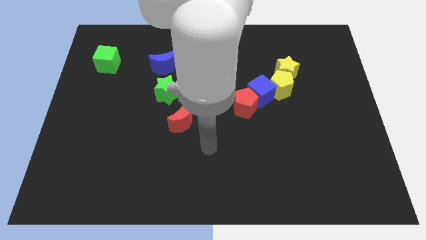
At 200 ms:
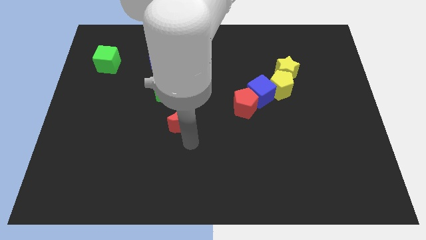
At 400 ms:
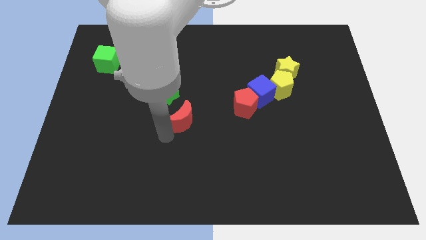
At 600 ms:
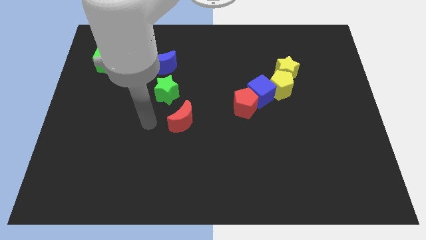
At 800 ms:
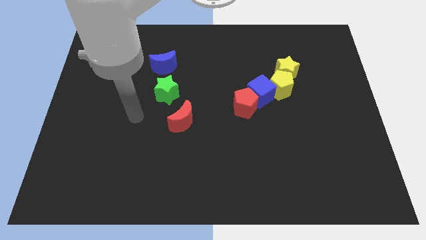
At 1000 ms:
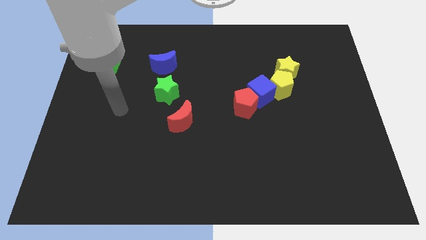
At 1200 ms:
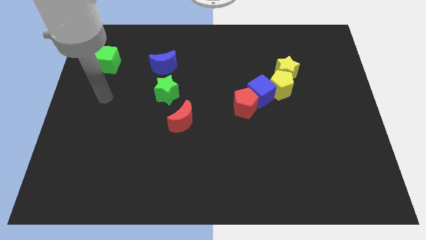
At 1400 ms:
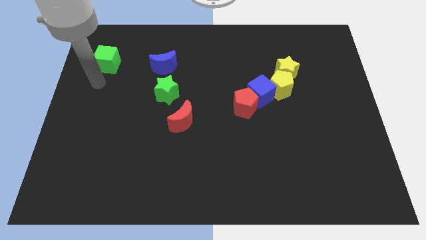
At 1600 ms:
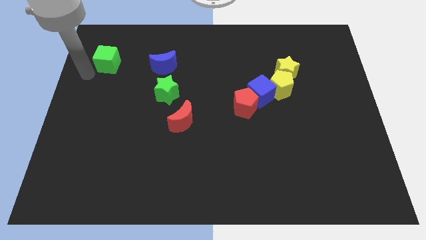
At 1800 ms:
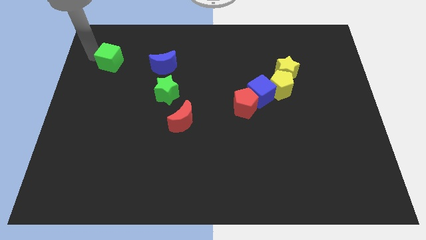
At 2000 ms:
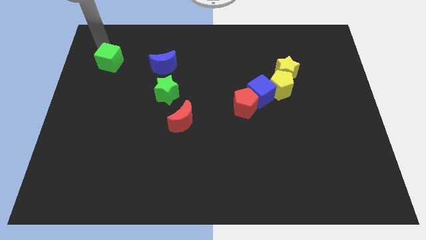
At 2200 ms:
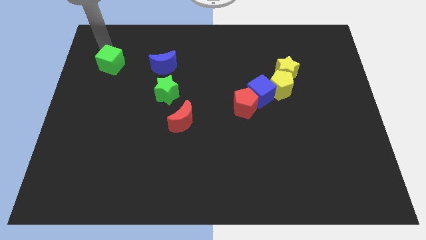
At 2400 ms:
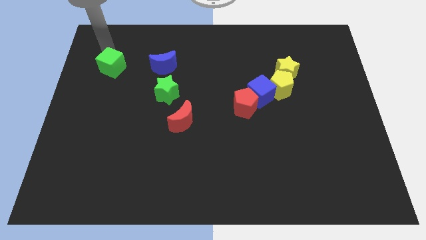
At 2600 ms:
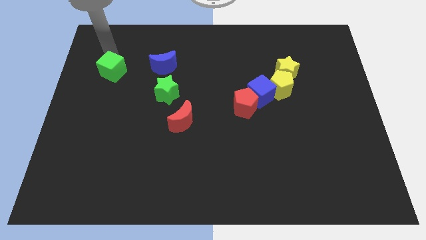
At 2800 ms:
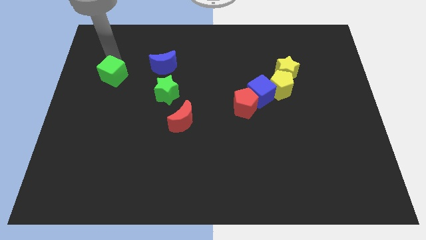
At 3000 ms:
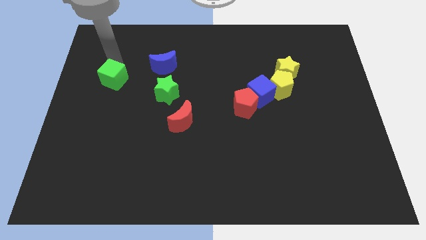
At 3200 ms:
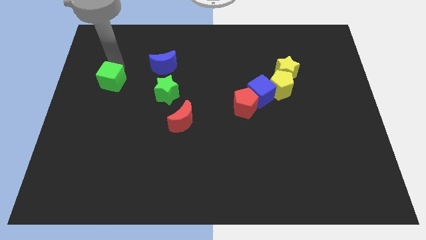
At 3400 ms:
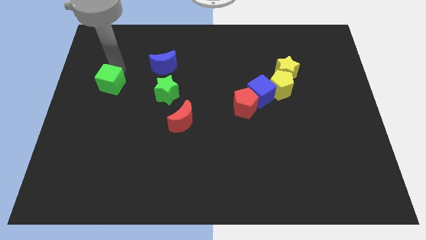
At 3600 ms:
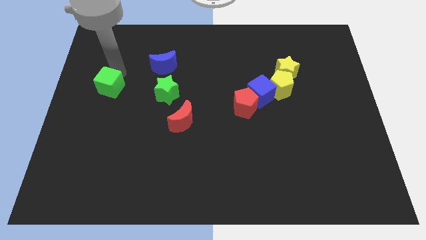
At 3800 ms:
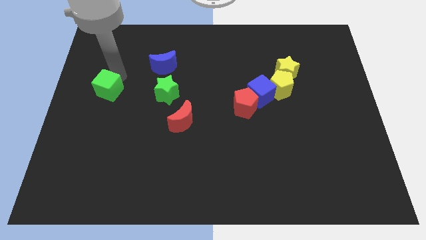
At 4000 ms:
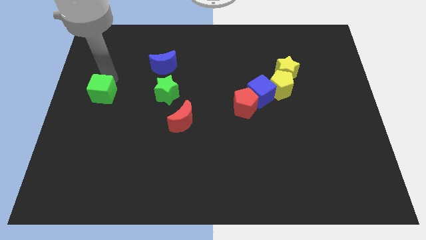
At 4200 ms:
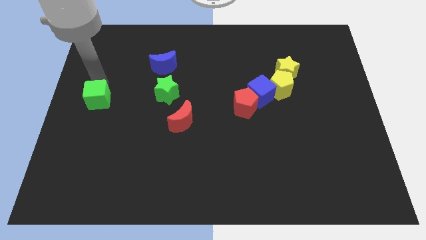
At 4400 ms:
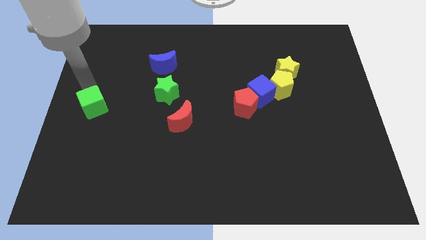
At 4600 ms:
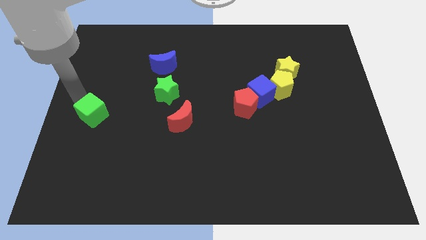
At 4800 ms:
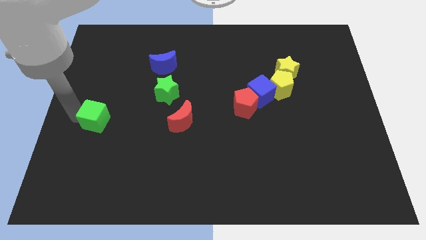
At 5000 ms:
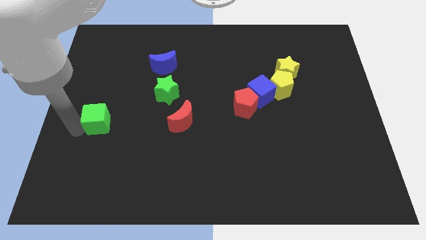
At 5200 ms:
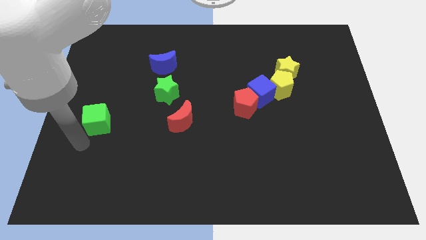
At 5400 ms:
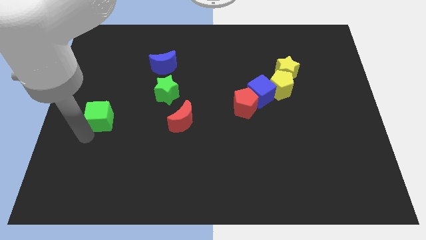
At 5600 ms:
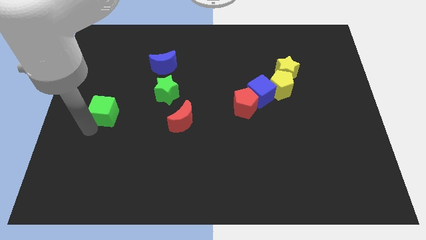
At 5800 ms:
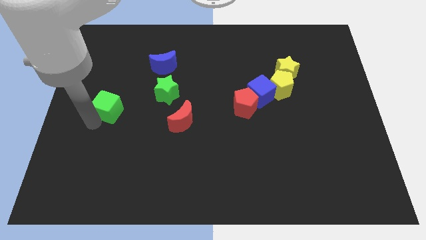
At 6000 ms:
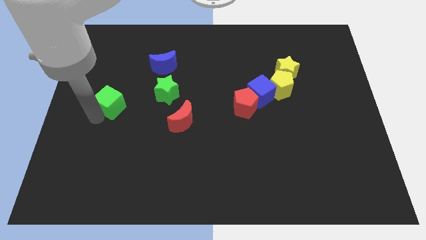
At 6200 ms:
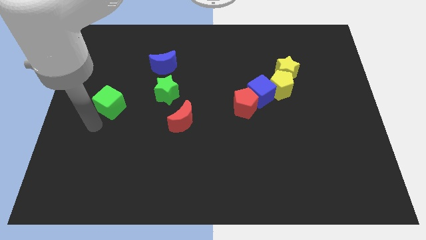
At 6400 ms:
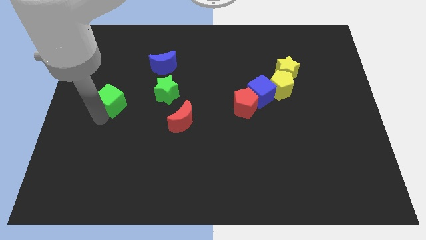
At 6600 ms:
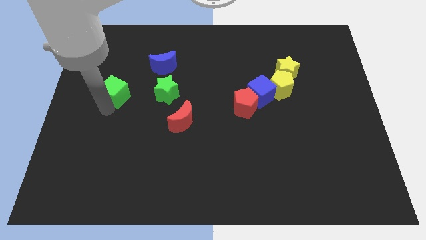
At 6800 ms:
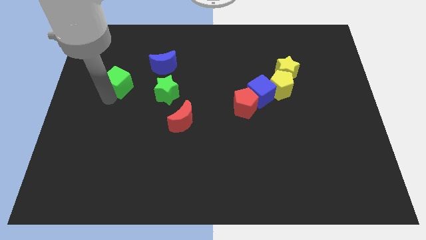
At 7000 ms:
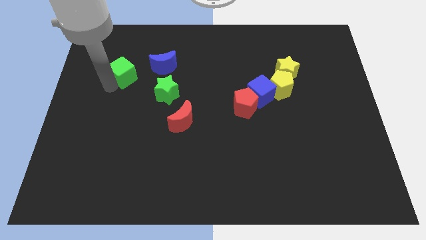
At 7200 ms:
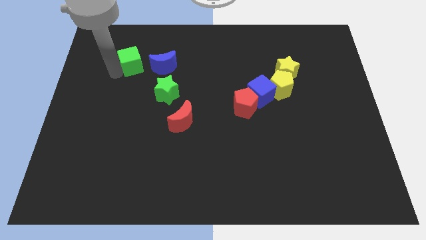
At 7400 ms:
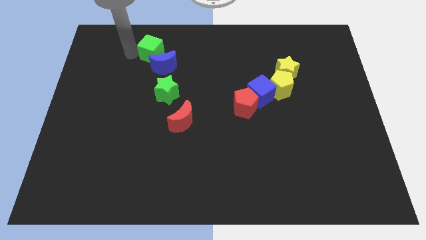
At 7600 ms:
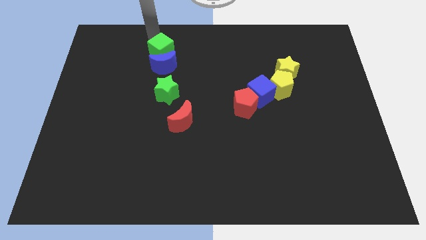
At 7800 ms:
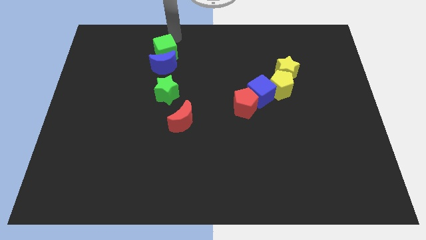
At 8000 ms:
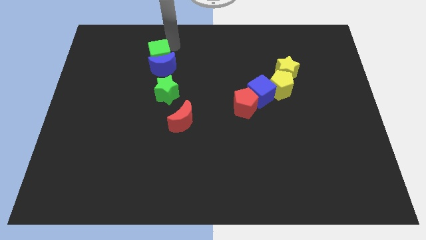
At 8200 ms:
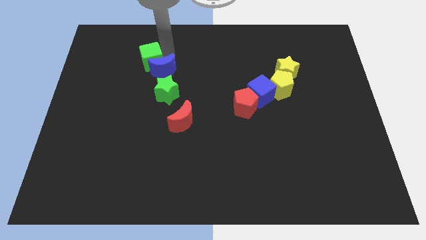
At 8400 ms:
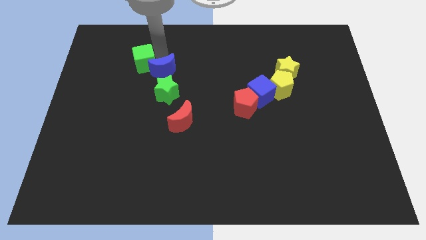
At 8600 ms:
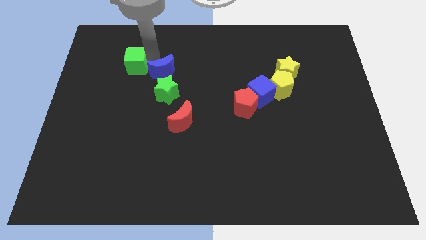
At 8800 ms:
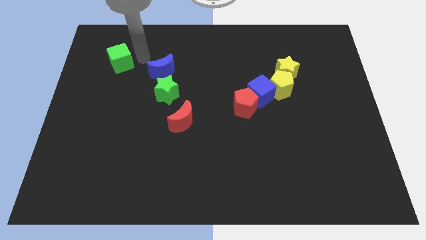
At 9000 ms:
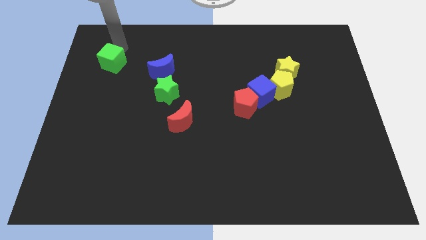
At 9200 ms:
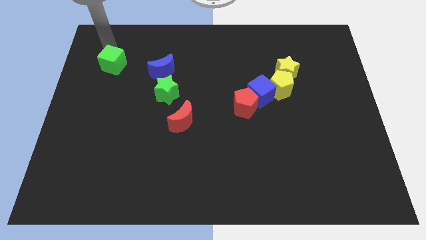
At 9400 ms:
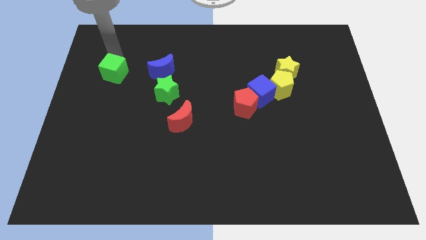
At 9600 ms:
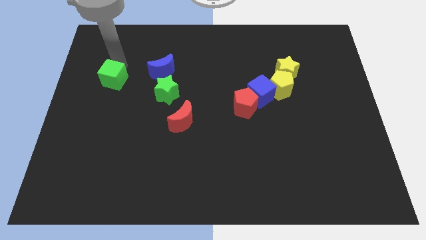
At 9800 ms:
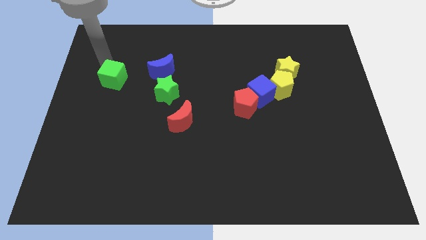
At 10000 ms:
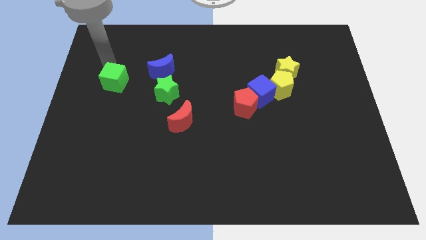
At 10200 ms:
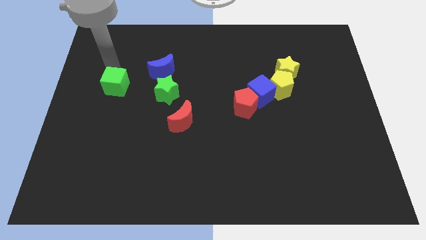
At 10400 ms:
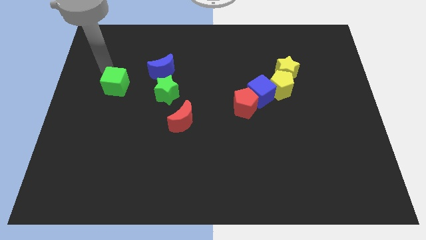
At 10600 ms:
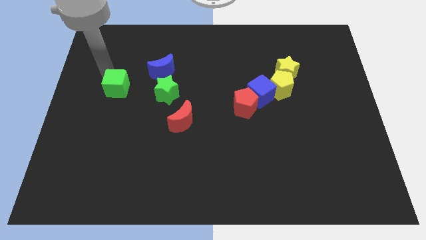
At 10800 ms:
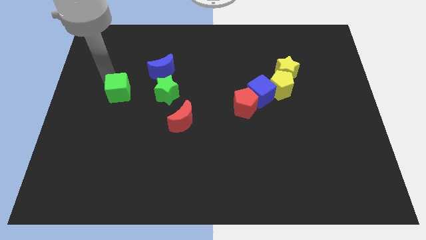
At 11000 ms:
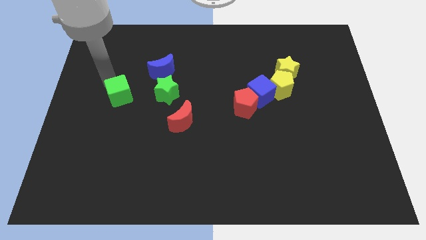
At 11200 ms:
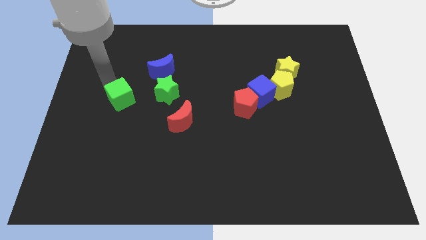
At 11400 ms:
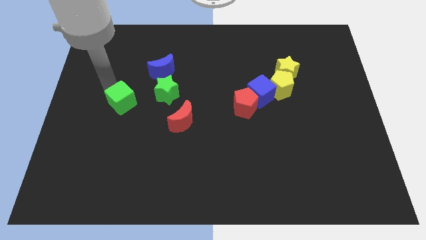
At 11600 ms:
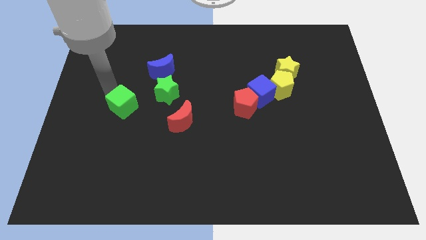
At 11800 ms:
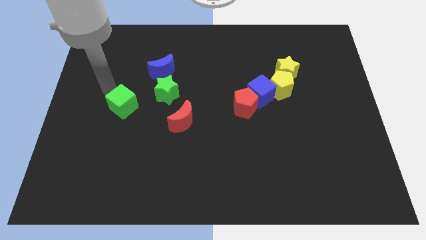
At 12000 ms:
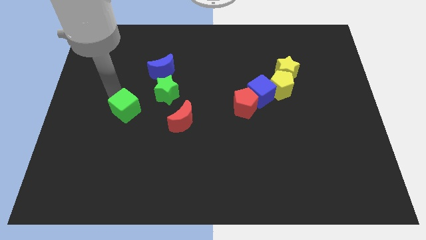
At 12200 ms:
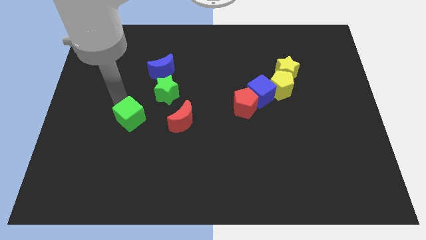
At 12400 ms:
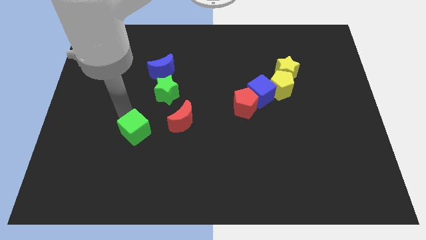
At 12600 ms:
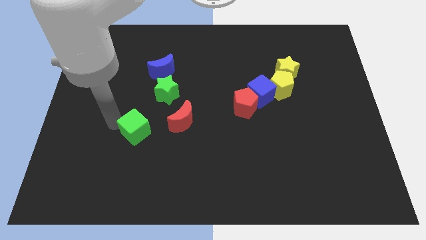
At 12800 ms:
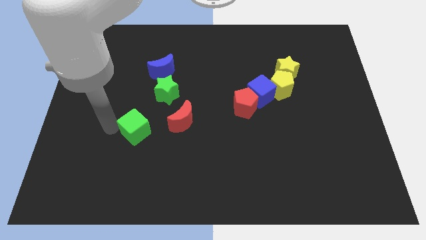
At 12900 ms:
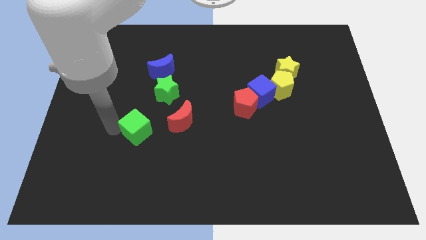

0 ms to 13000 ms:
move the green cube down and then to the right

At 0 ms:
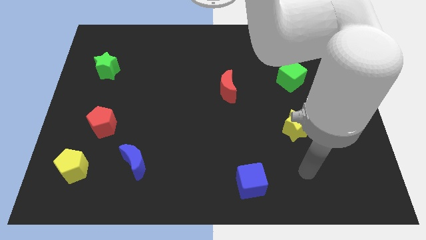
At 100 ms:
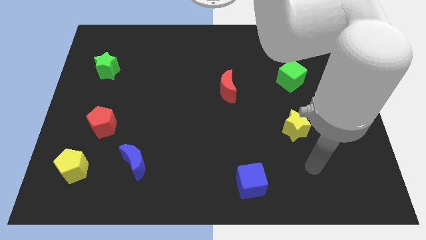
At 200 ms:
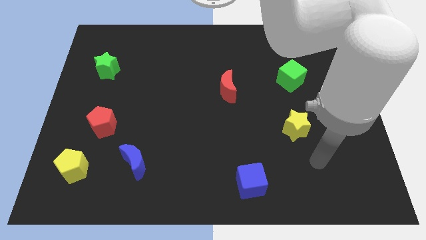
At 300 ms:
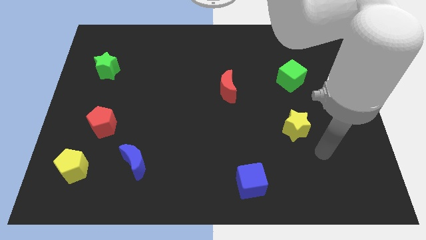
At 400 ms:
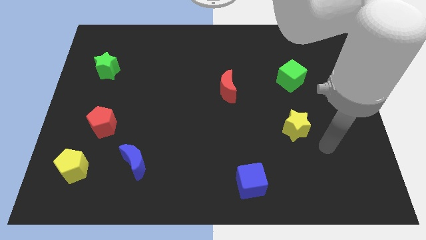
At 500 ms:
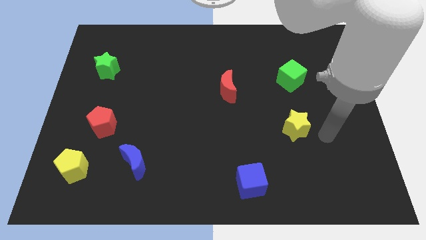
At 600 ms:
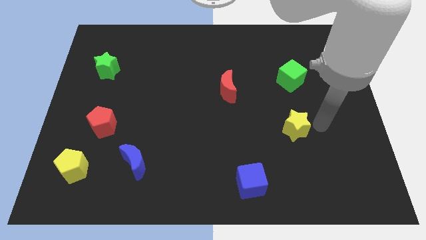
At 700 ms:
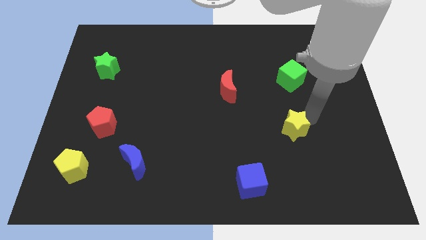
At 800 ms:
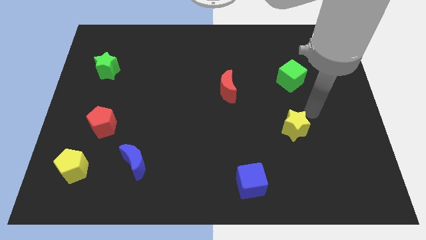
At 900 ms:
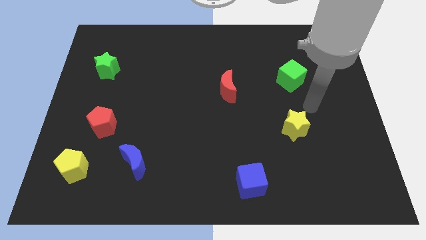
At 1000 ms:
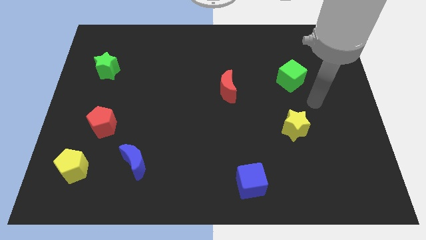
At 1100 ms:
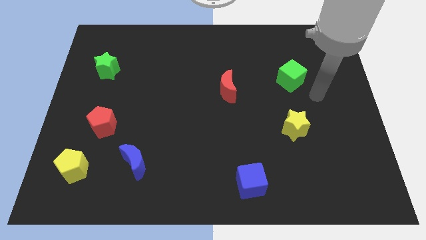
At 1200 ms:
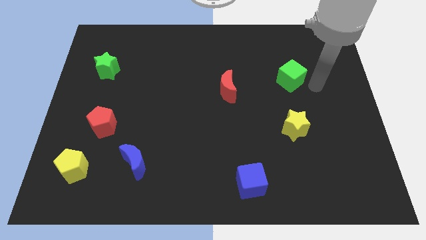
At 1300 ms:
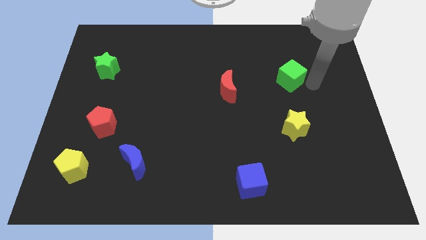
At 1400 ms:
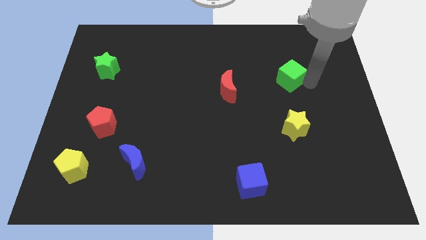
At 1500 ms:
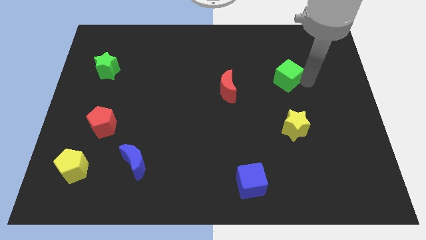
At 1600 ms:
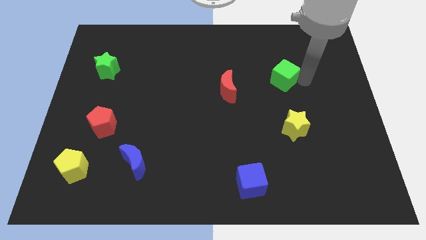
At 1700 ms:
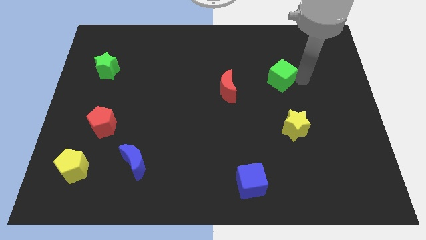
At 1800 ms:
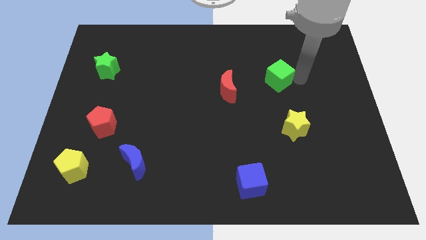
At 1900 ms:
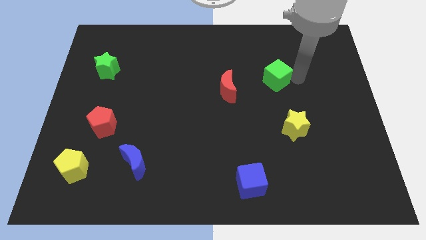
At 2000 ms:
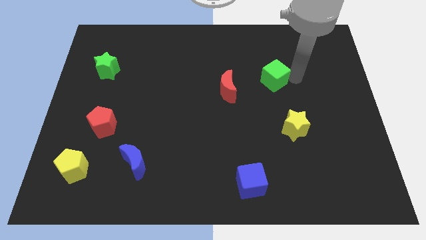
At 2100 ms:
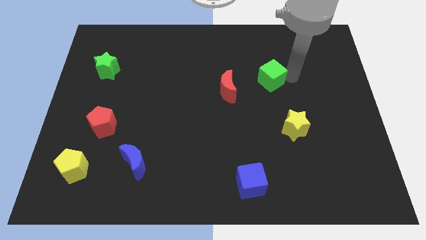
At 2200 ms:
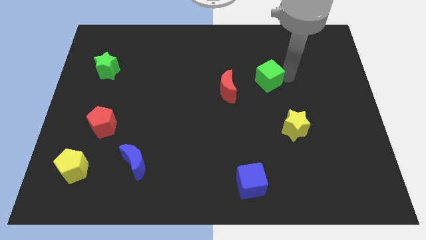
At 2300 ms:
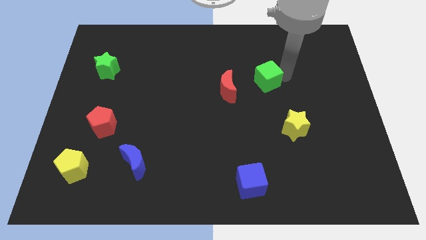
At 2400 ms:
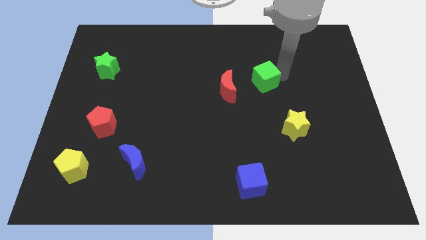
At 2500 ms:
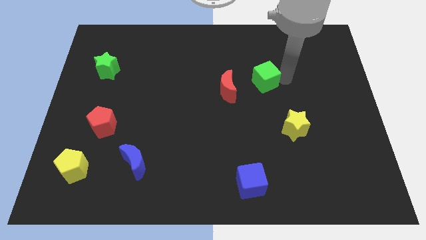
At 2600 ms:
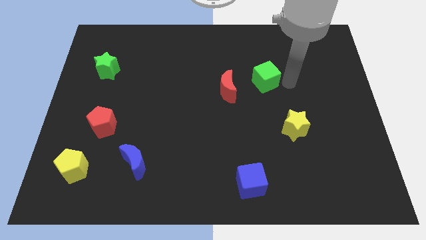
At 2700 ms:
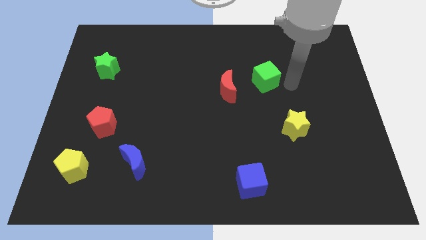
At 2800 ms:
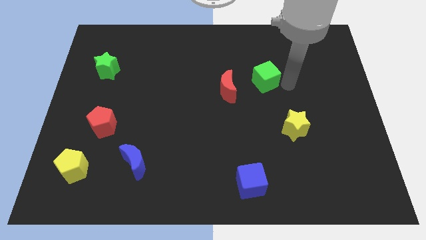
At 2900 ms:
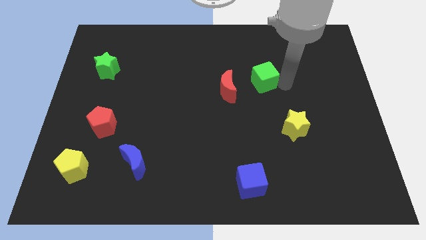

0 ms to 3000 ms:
slightly push the green cube to the left
